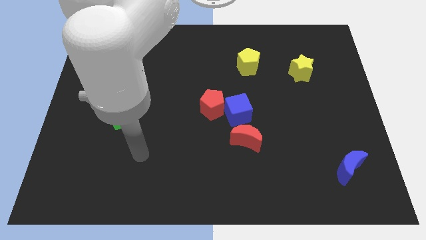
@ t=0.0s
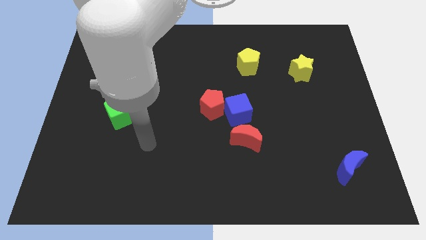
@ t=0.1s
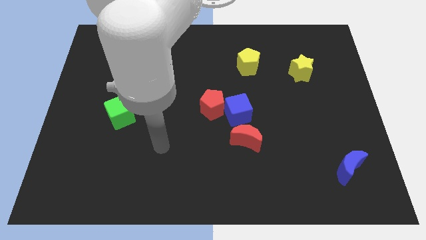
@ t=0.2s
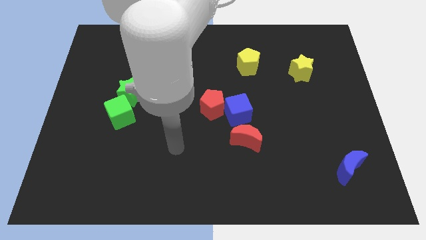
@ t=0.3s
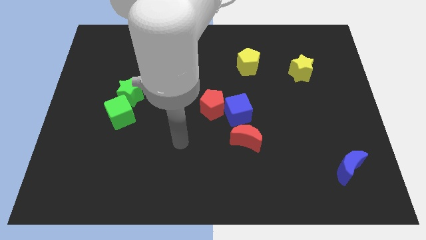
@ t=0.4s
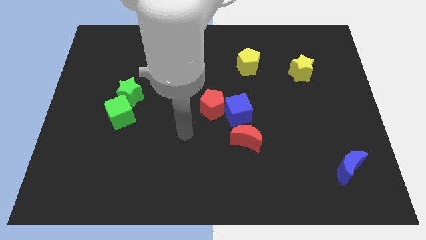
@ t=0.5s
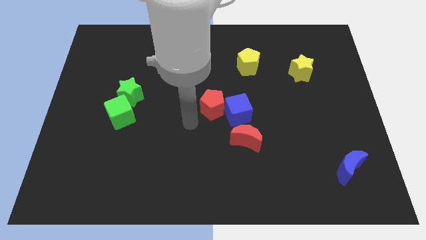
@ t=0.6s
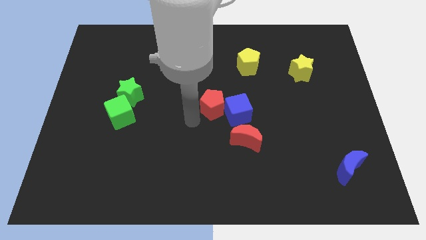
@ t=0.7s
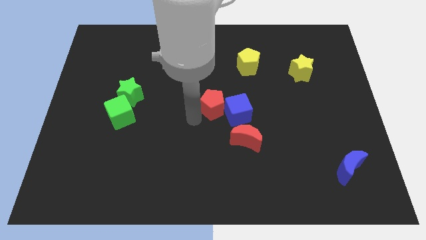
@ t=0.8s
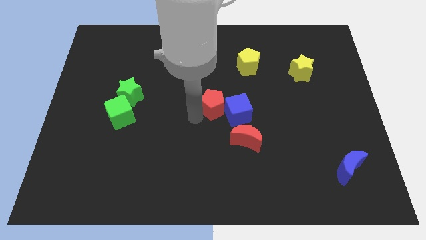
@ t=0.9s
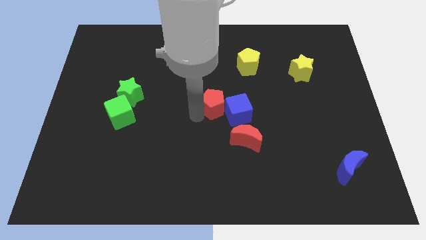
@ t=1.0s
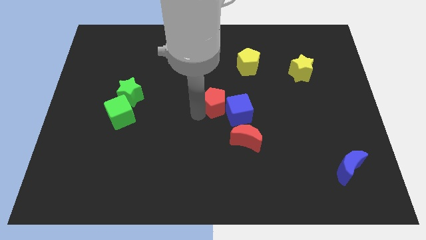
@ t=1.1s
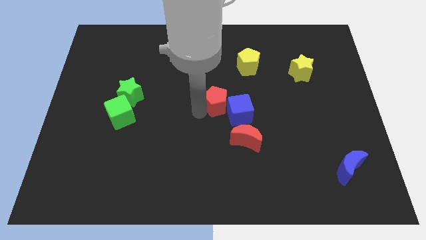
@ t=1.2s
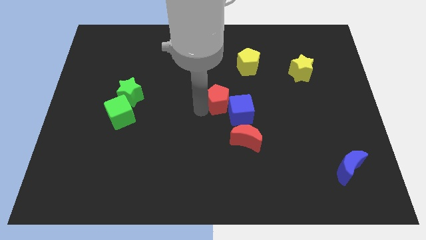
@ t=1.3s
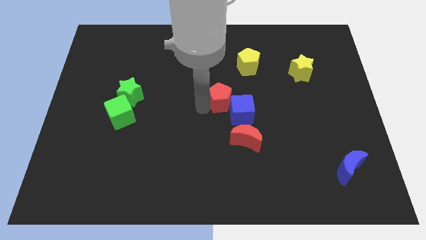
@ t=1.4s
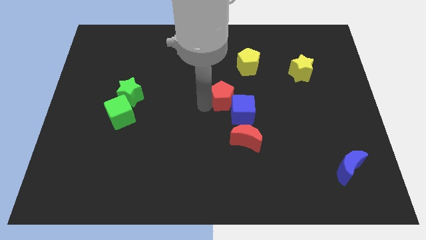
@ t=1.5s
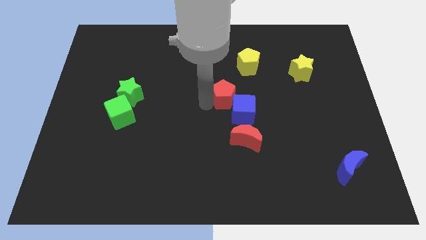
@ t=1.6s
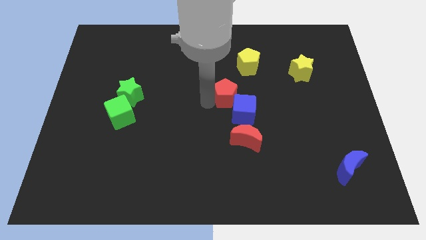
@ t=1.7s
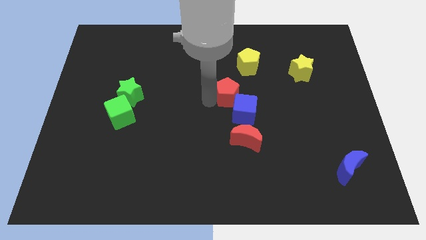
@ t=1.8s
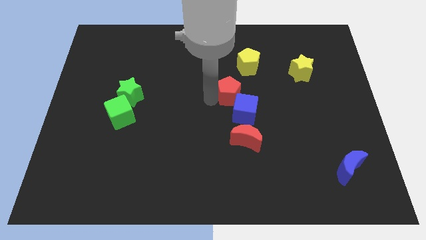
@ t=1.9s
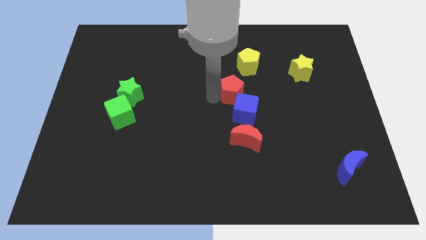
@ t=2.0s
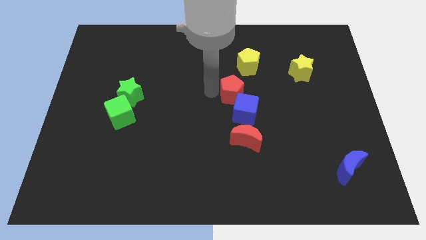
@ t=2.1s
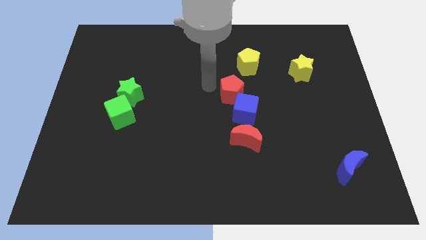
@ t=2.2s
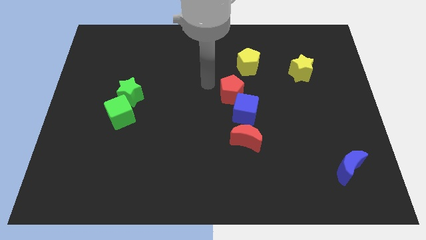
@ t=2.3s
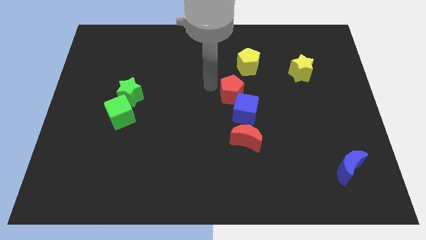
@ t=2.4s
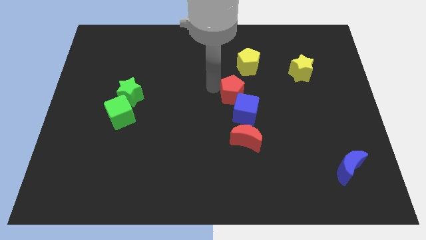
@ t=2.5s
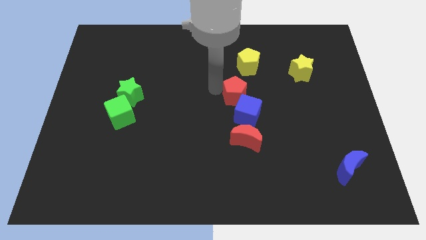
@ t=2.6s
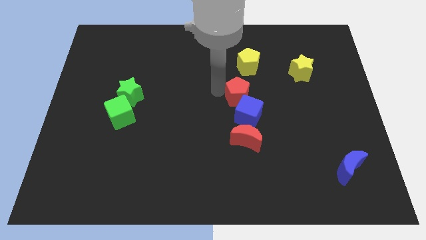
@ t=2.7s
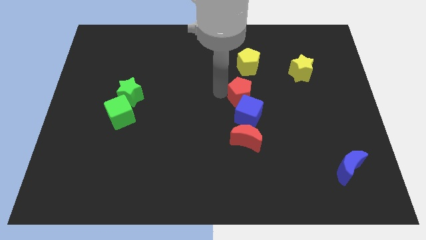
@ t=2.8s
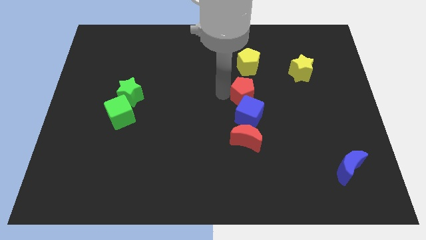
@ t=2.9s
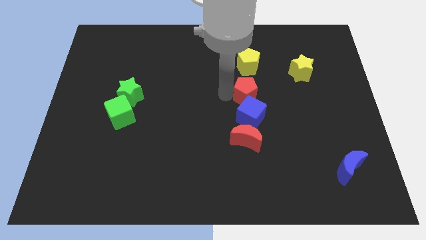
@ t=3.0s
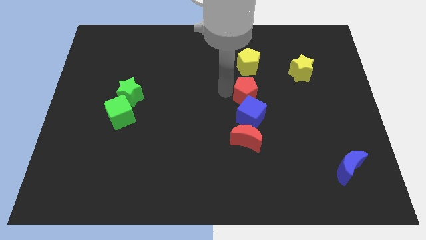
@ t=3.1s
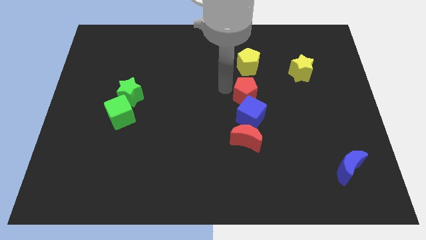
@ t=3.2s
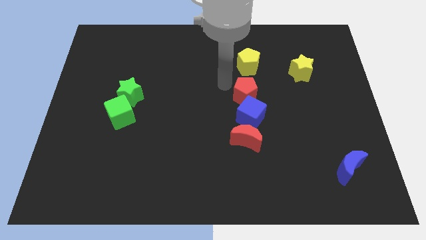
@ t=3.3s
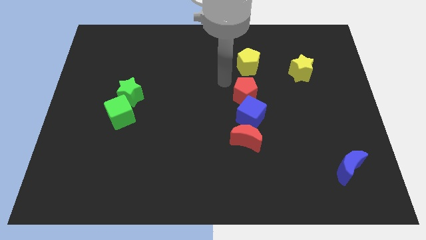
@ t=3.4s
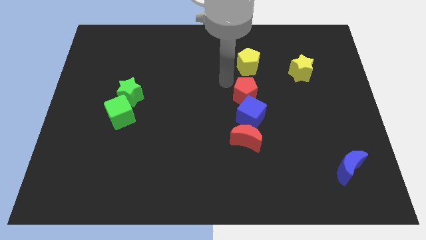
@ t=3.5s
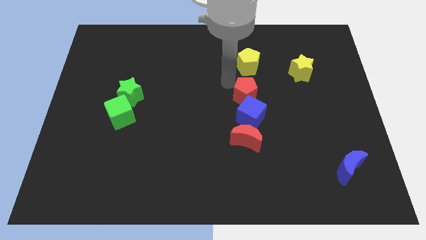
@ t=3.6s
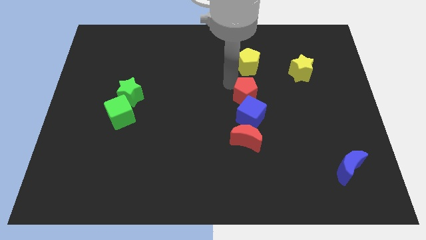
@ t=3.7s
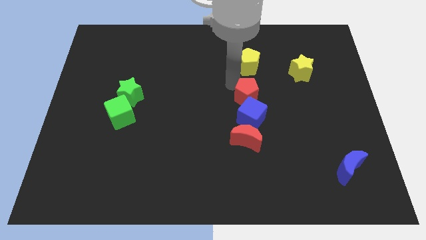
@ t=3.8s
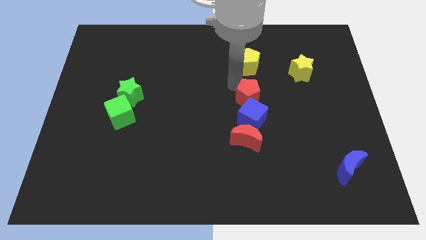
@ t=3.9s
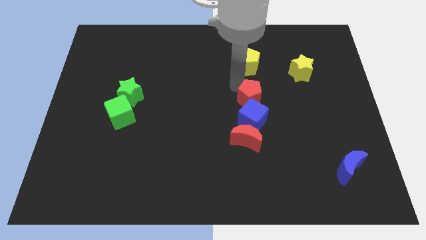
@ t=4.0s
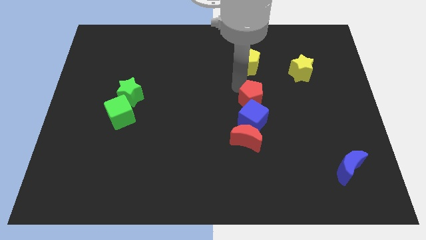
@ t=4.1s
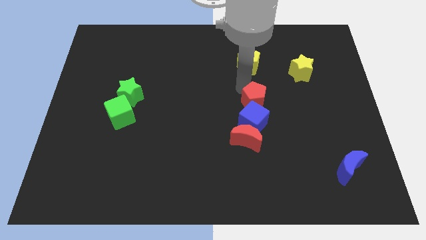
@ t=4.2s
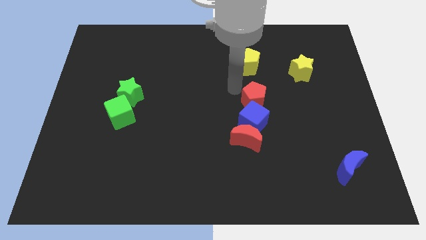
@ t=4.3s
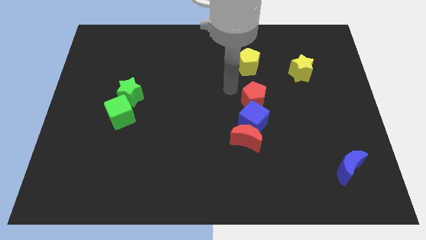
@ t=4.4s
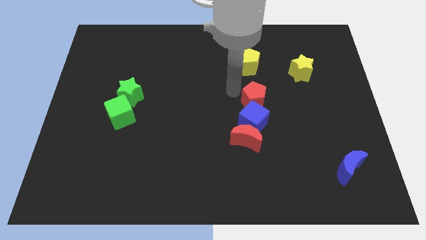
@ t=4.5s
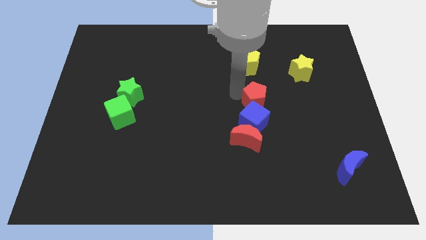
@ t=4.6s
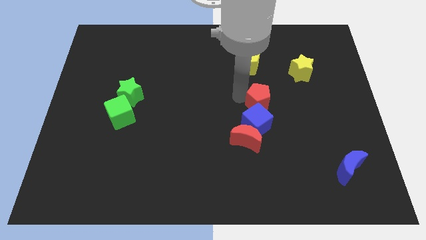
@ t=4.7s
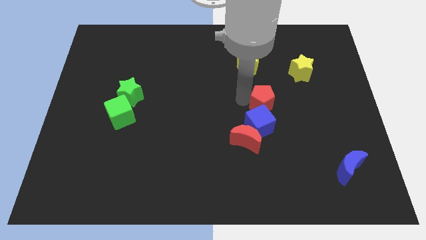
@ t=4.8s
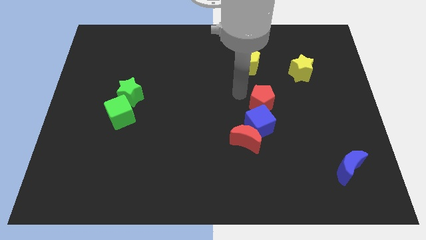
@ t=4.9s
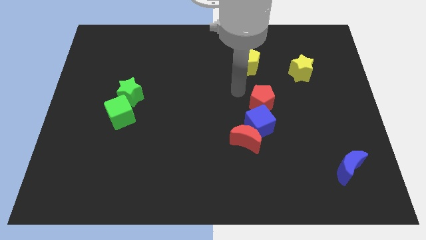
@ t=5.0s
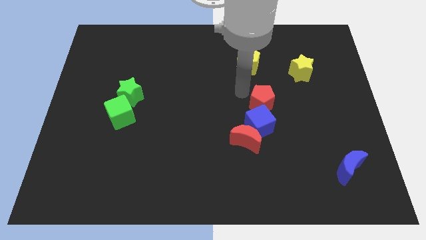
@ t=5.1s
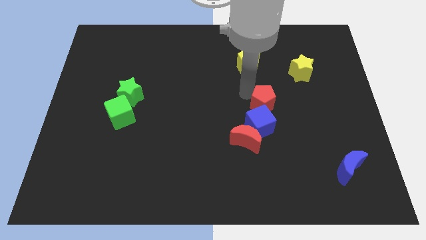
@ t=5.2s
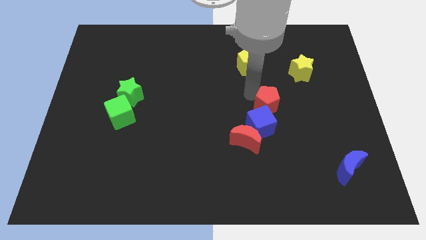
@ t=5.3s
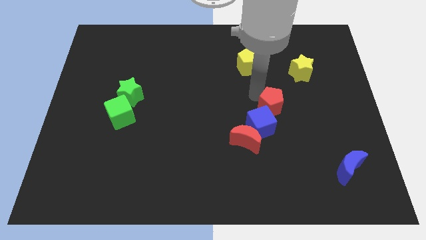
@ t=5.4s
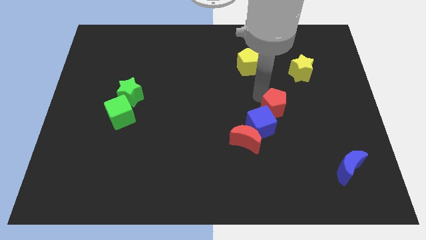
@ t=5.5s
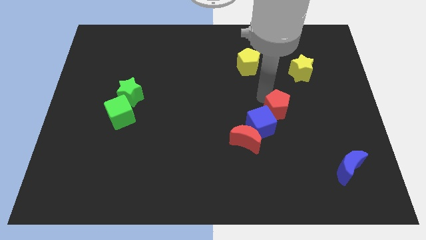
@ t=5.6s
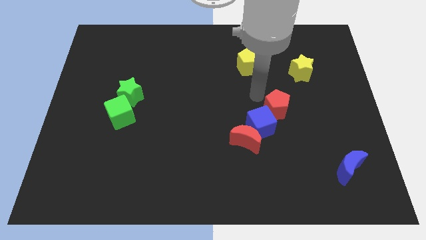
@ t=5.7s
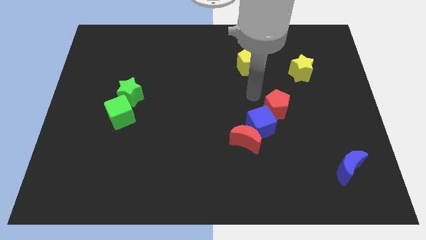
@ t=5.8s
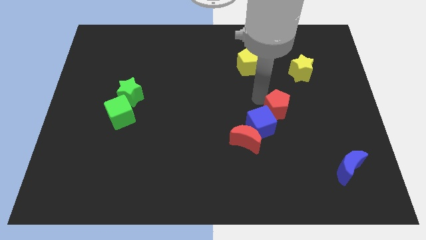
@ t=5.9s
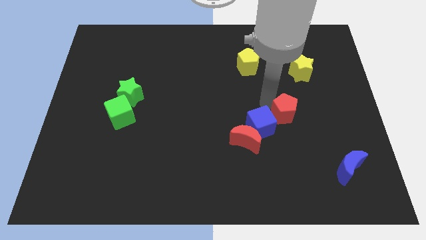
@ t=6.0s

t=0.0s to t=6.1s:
put the red pentagon to the right of the blue cube

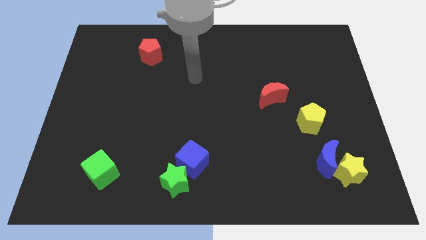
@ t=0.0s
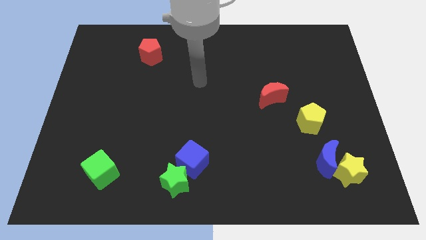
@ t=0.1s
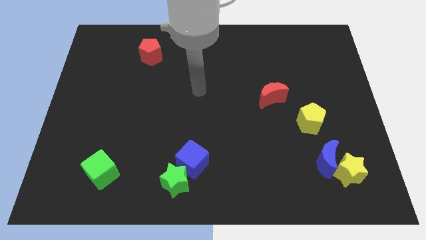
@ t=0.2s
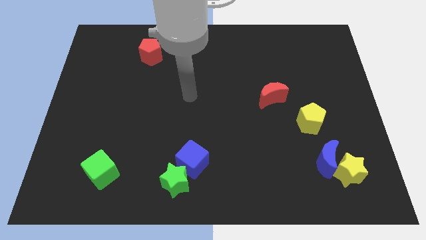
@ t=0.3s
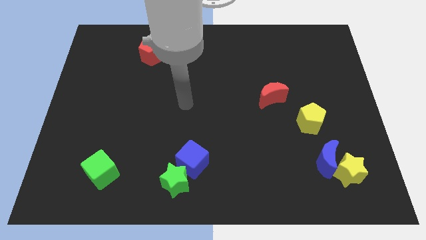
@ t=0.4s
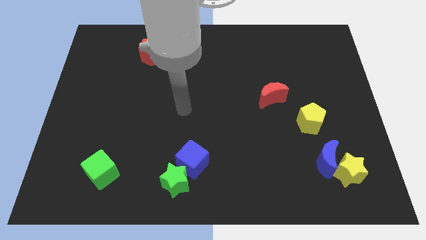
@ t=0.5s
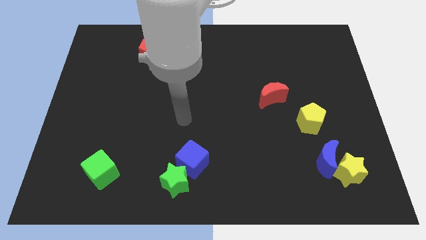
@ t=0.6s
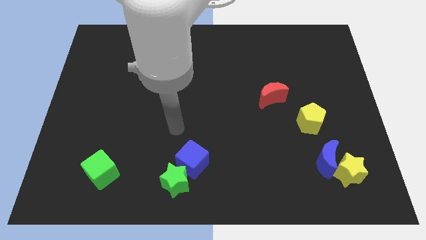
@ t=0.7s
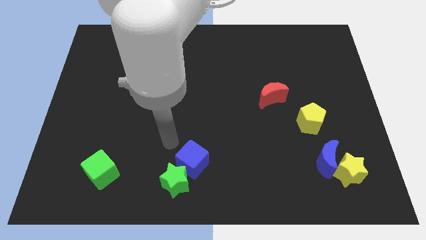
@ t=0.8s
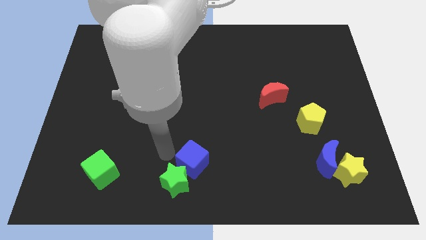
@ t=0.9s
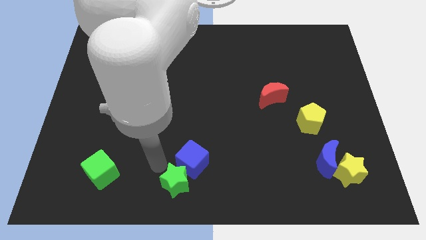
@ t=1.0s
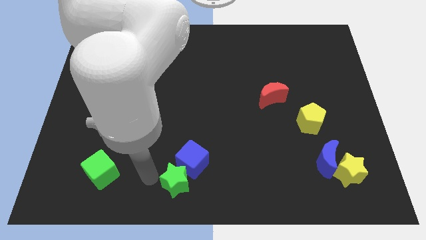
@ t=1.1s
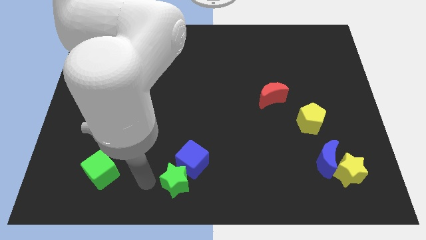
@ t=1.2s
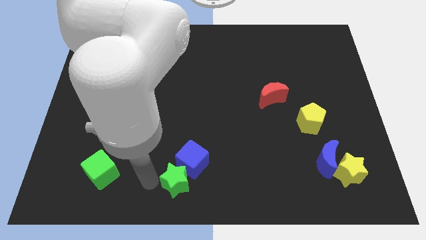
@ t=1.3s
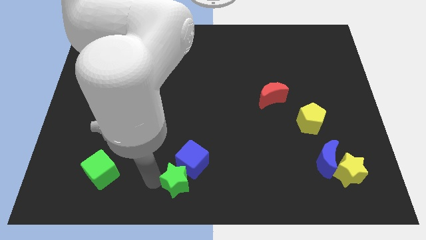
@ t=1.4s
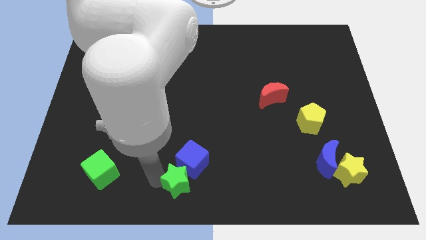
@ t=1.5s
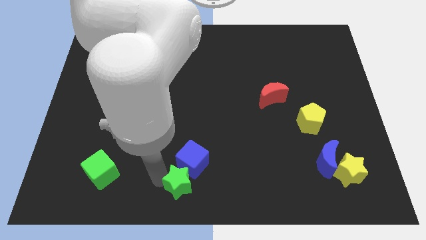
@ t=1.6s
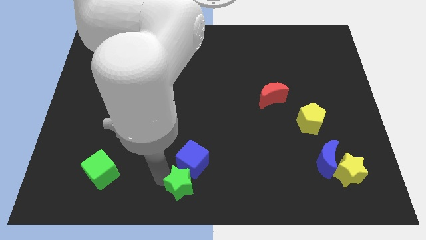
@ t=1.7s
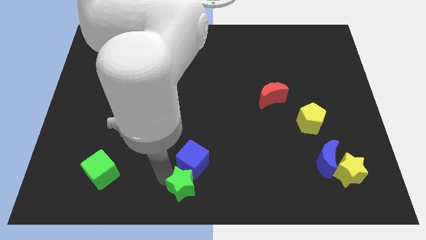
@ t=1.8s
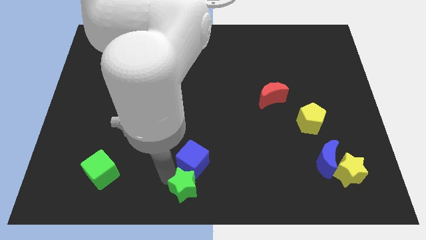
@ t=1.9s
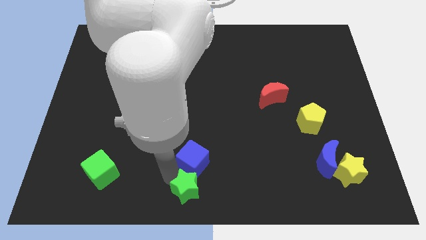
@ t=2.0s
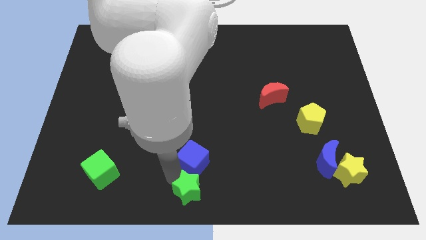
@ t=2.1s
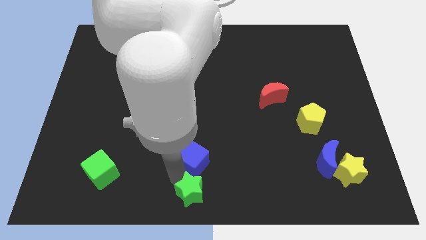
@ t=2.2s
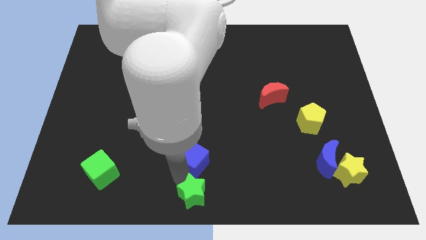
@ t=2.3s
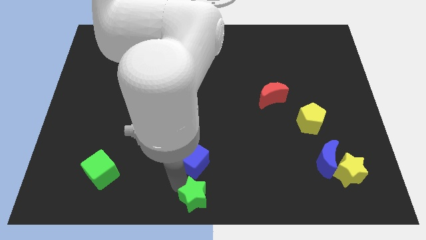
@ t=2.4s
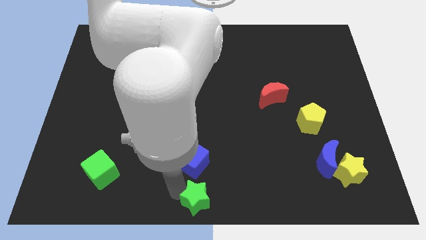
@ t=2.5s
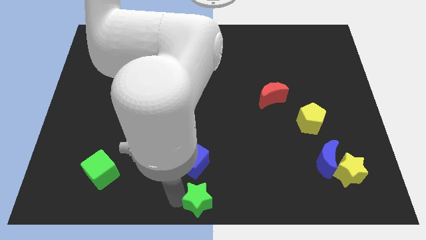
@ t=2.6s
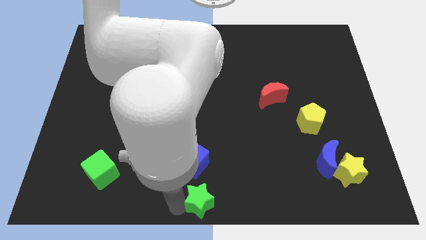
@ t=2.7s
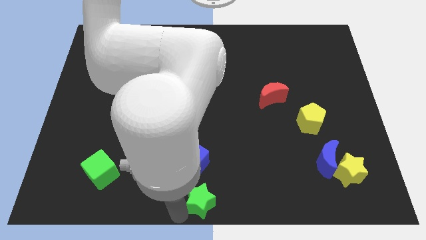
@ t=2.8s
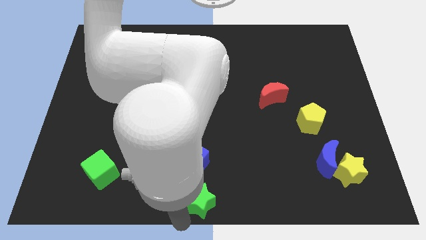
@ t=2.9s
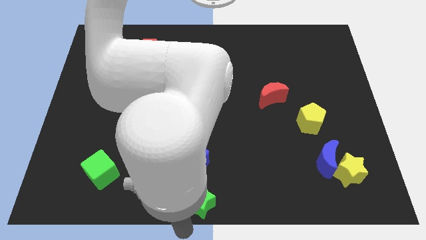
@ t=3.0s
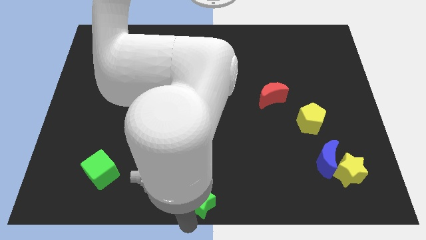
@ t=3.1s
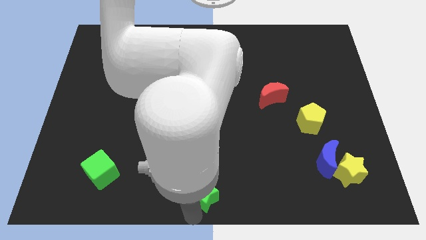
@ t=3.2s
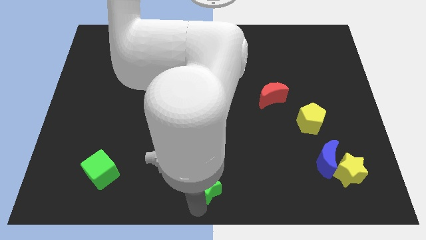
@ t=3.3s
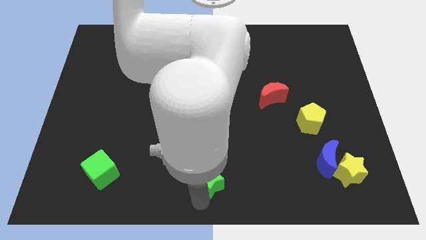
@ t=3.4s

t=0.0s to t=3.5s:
move the green star right of the blue cube
